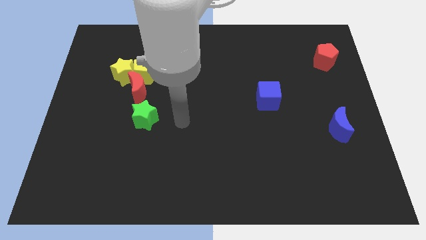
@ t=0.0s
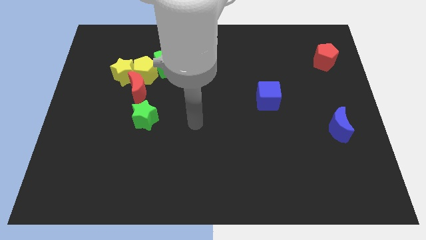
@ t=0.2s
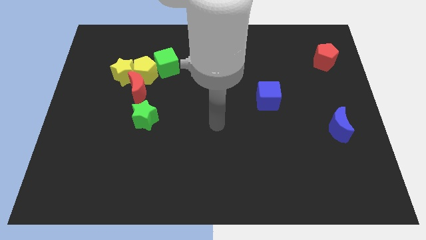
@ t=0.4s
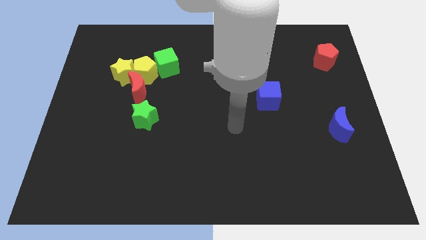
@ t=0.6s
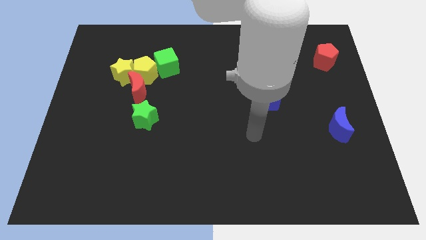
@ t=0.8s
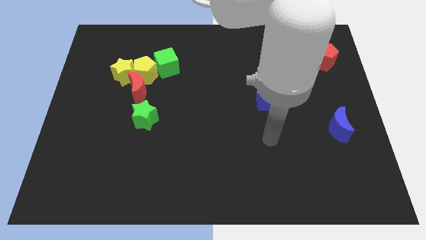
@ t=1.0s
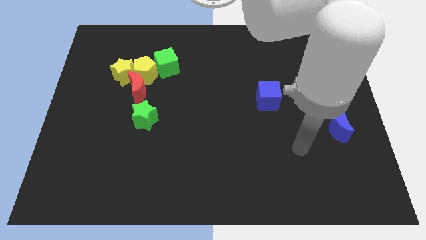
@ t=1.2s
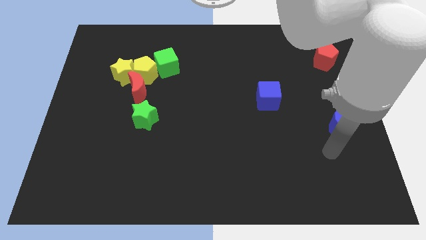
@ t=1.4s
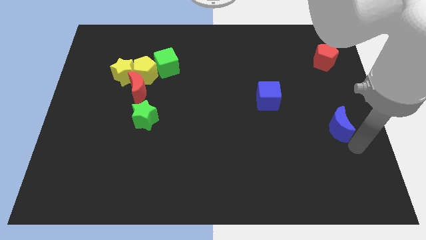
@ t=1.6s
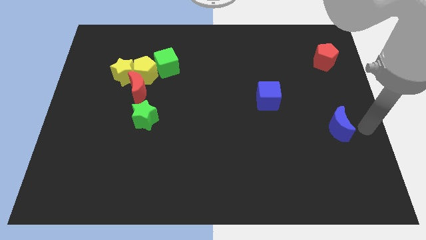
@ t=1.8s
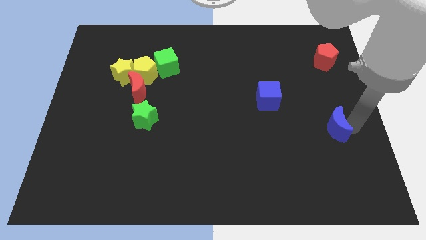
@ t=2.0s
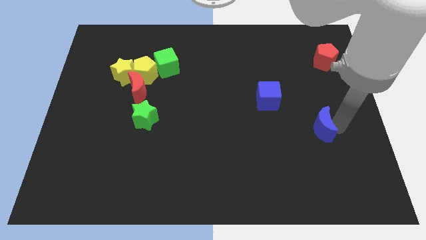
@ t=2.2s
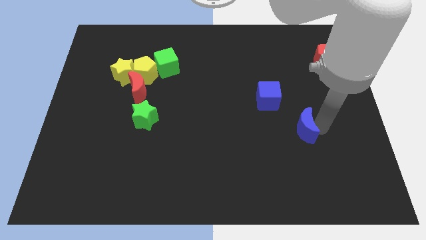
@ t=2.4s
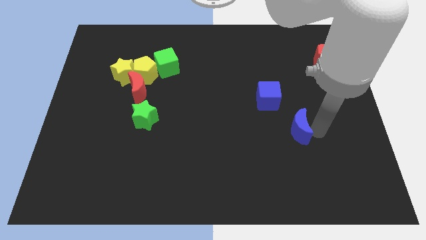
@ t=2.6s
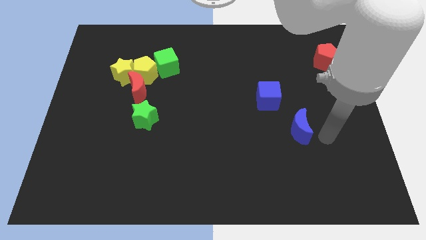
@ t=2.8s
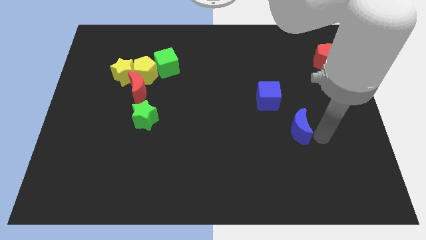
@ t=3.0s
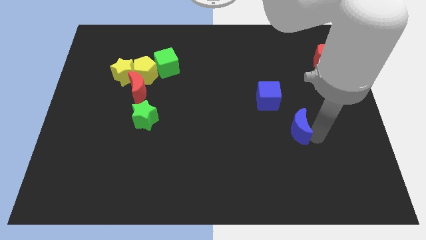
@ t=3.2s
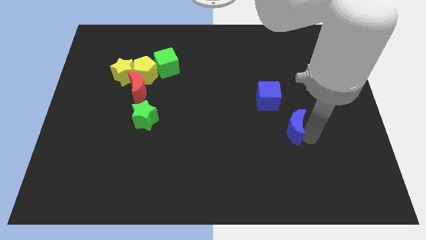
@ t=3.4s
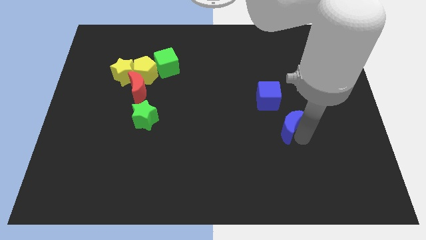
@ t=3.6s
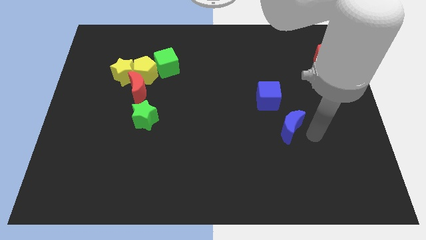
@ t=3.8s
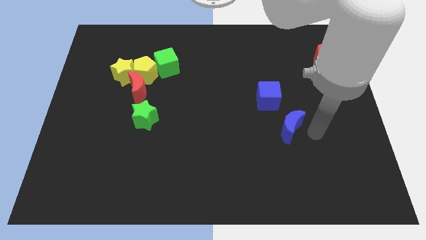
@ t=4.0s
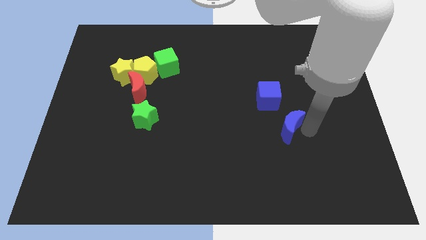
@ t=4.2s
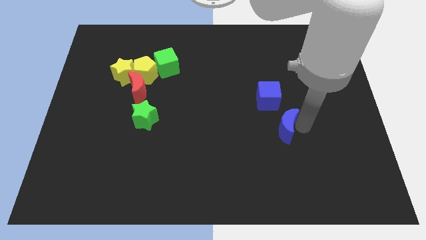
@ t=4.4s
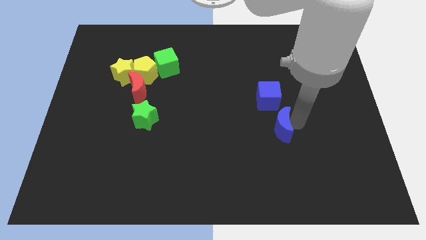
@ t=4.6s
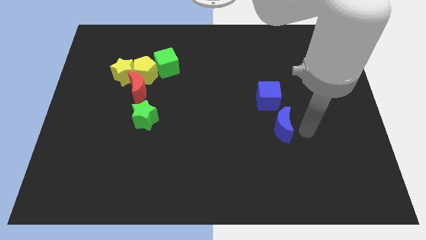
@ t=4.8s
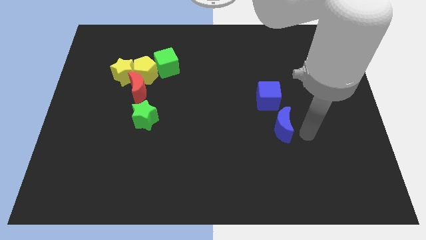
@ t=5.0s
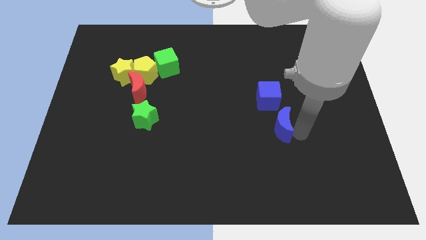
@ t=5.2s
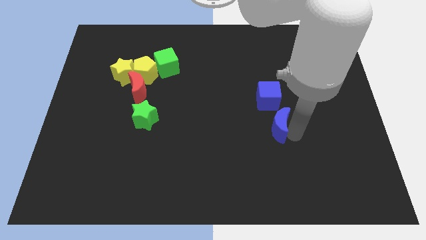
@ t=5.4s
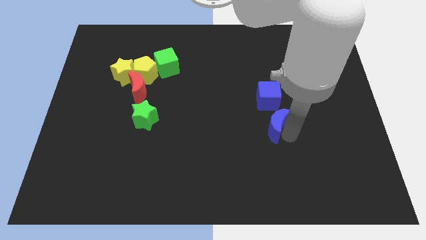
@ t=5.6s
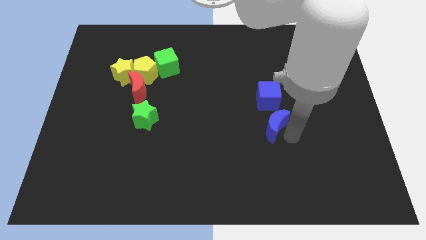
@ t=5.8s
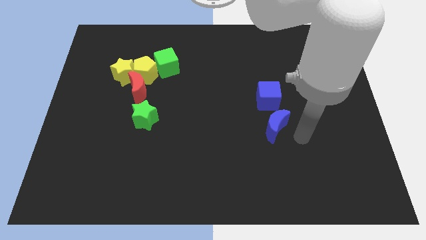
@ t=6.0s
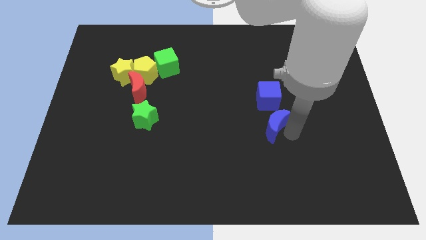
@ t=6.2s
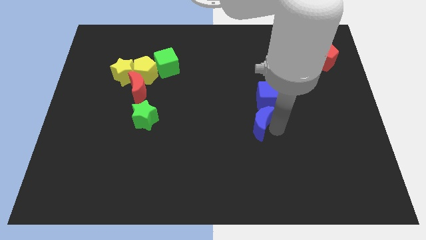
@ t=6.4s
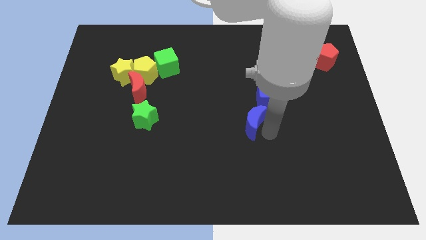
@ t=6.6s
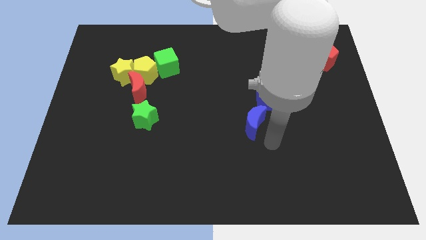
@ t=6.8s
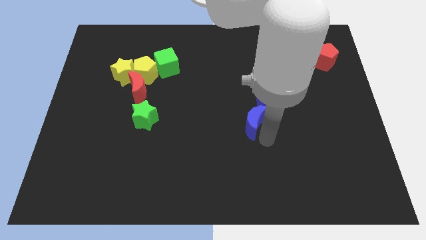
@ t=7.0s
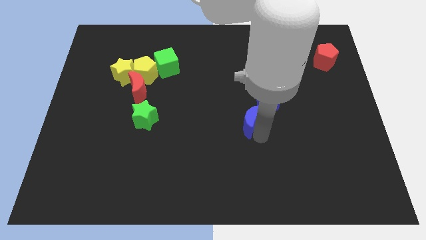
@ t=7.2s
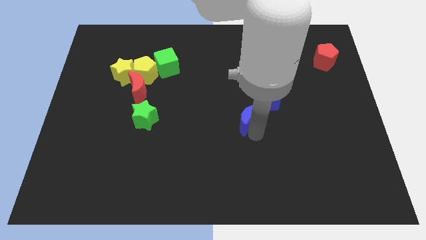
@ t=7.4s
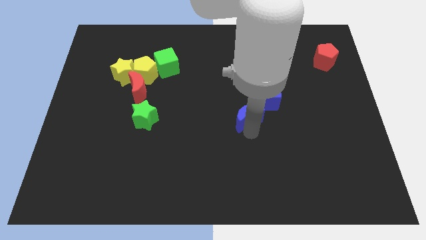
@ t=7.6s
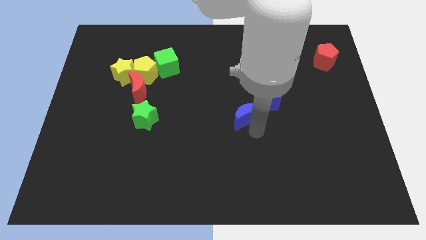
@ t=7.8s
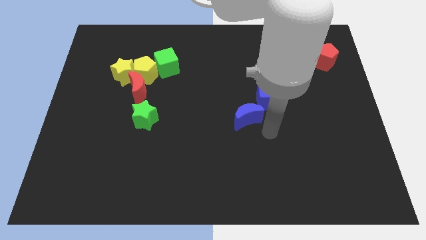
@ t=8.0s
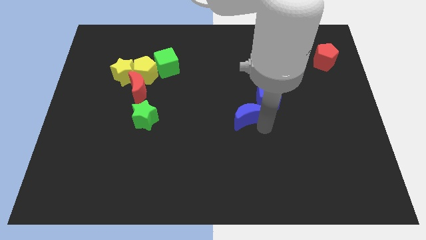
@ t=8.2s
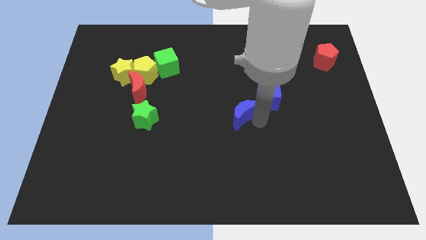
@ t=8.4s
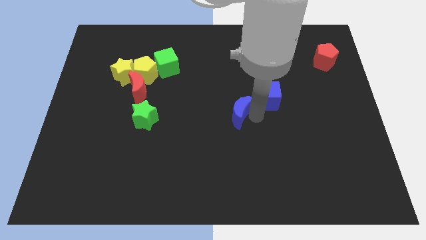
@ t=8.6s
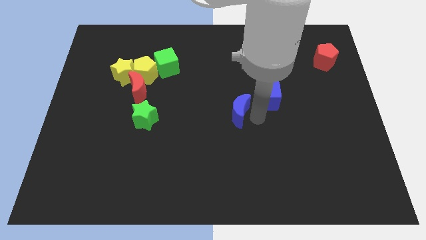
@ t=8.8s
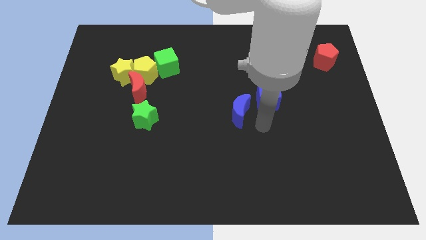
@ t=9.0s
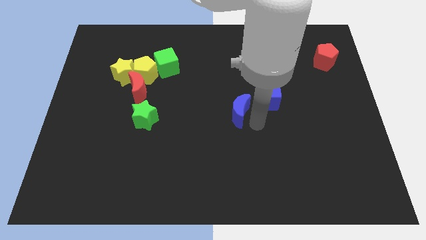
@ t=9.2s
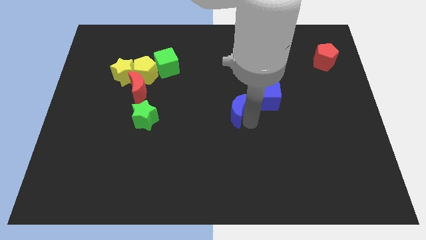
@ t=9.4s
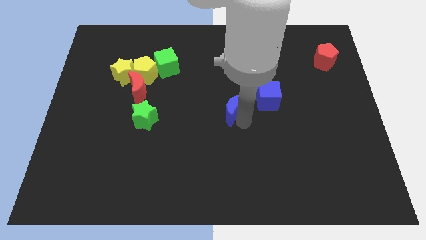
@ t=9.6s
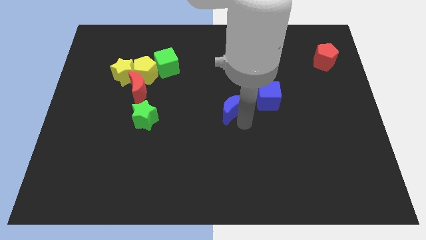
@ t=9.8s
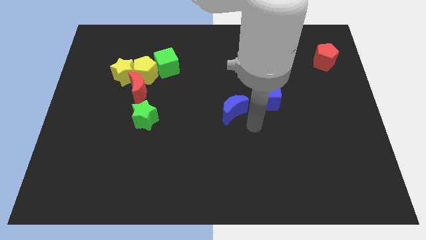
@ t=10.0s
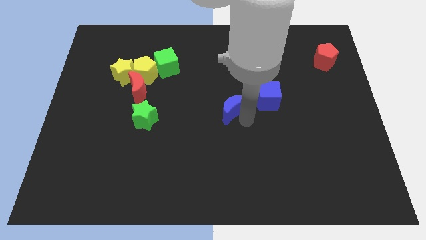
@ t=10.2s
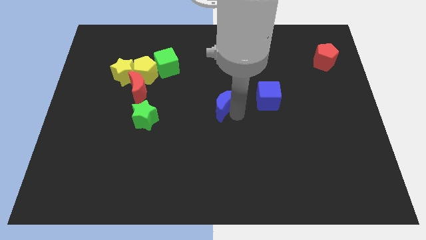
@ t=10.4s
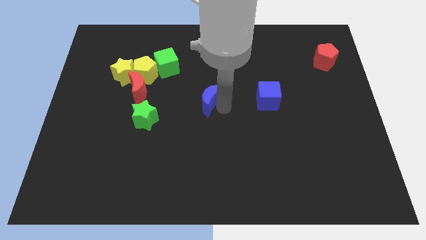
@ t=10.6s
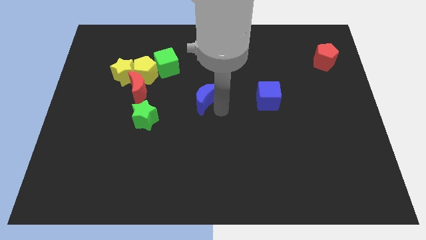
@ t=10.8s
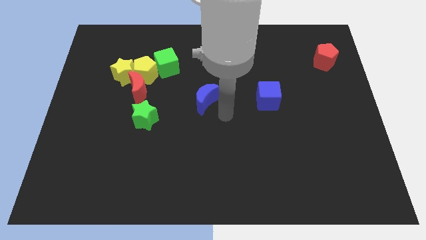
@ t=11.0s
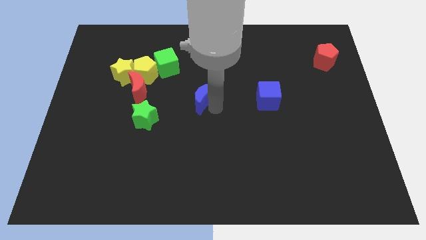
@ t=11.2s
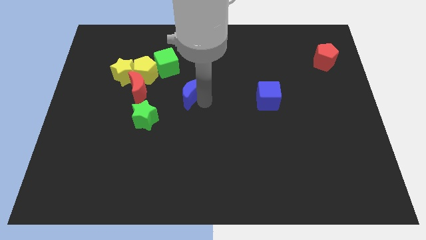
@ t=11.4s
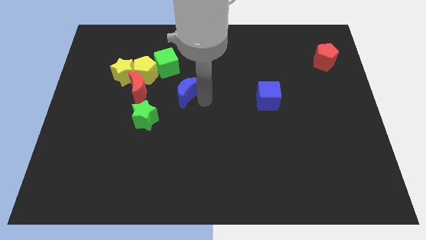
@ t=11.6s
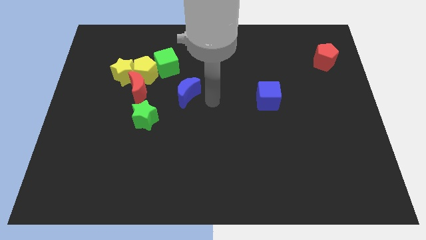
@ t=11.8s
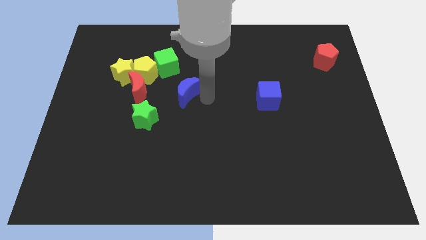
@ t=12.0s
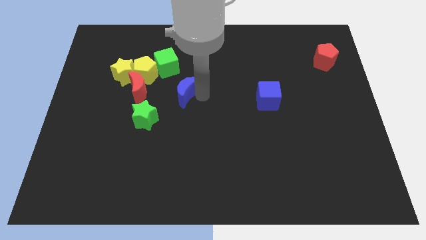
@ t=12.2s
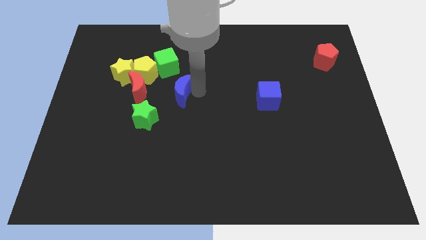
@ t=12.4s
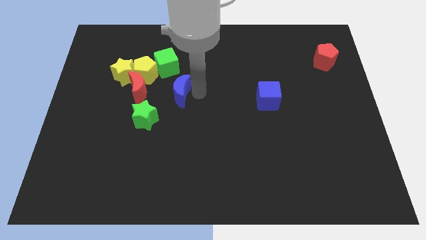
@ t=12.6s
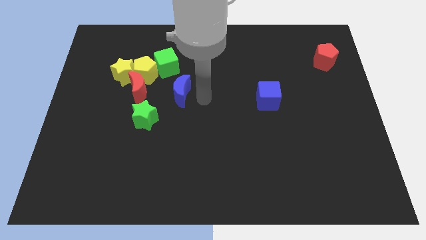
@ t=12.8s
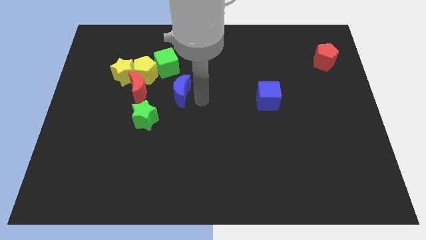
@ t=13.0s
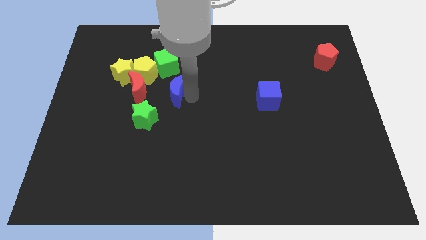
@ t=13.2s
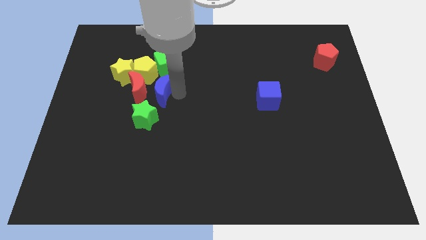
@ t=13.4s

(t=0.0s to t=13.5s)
push the blue moon next to the red moon

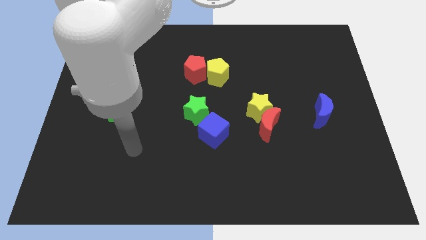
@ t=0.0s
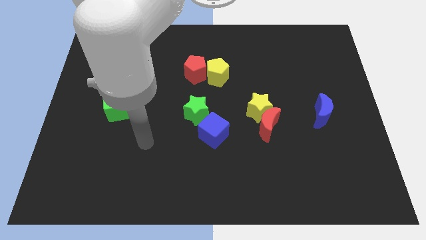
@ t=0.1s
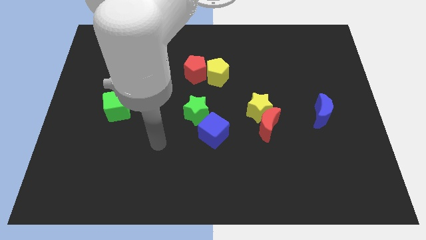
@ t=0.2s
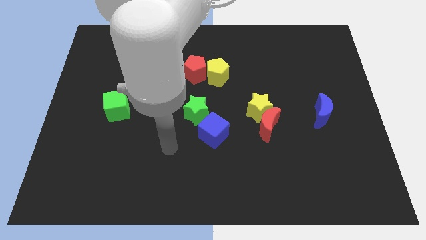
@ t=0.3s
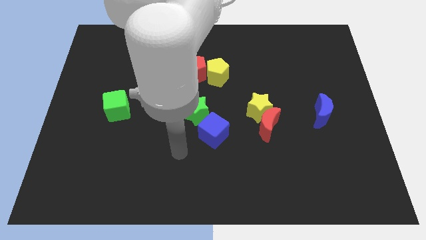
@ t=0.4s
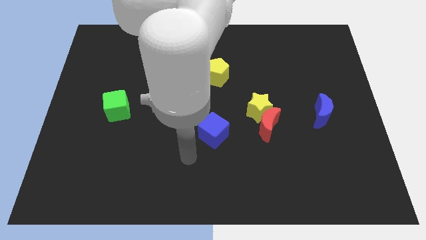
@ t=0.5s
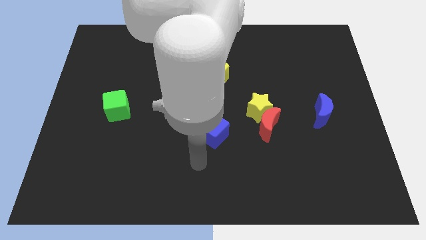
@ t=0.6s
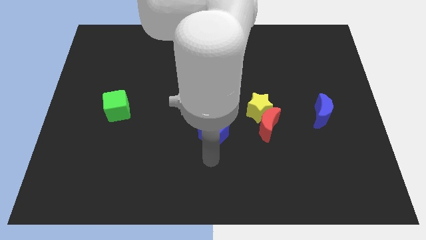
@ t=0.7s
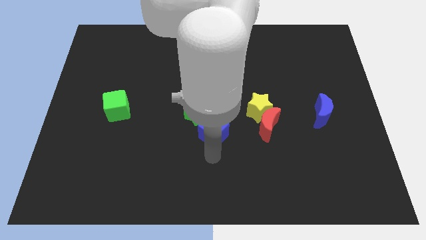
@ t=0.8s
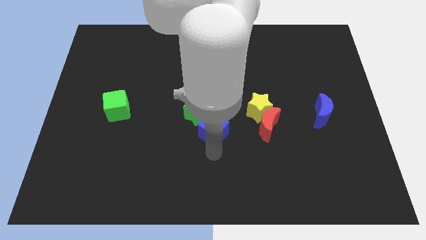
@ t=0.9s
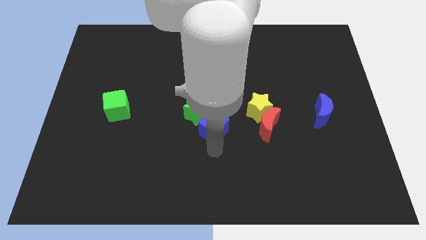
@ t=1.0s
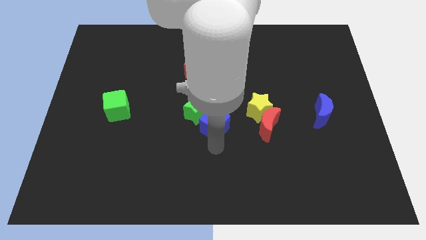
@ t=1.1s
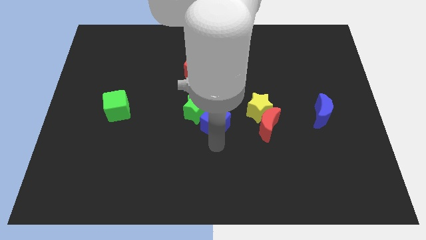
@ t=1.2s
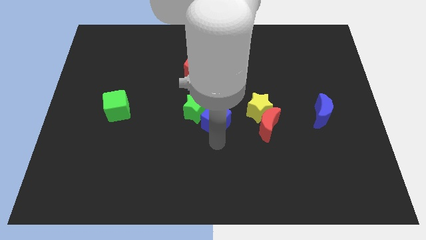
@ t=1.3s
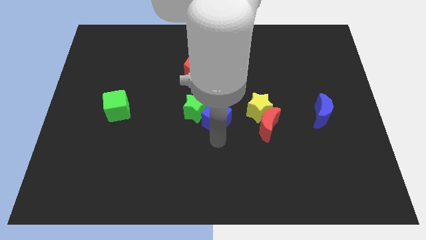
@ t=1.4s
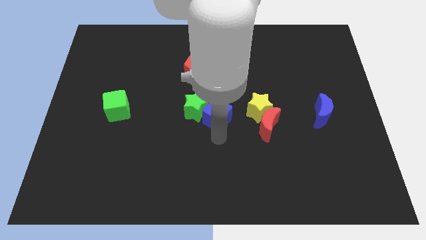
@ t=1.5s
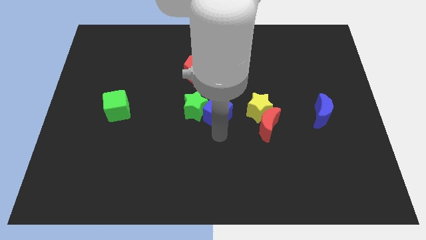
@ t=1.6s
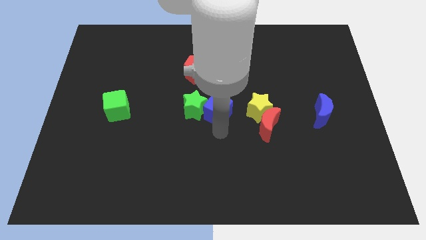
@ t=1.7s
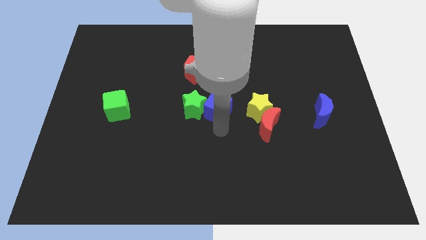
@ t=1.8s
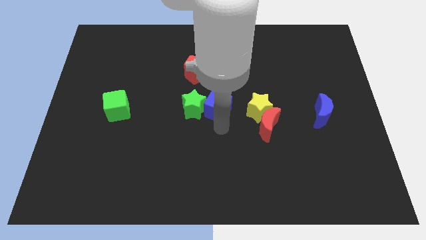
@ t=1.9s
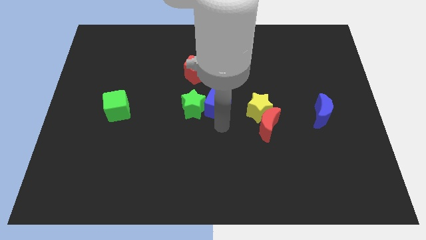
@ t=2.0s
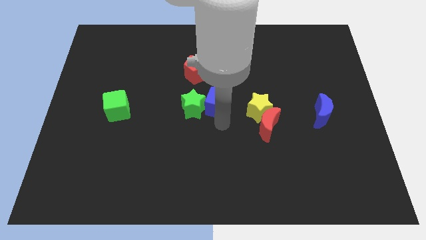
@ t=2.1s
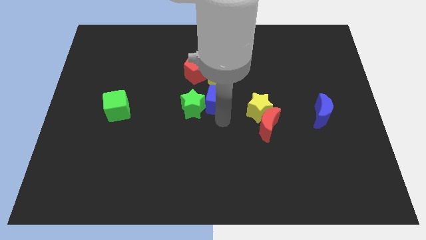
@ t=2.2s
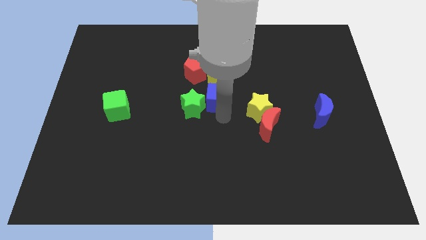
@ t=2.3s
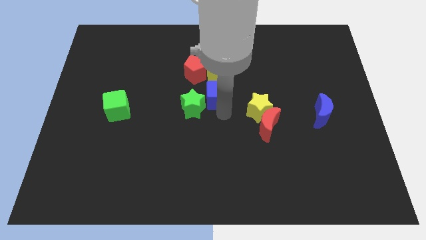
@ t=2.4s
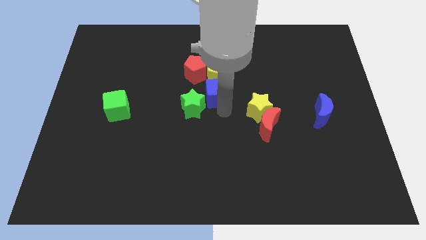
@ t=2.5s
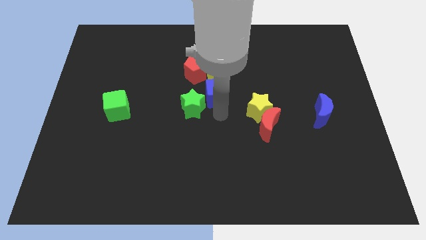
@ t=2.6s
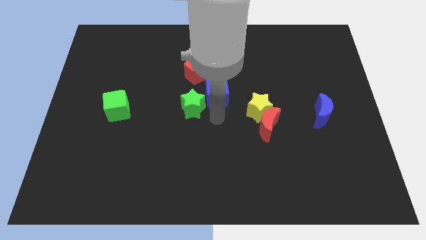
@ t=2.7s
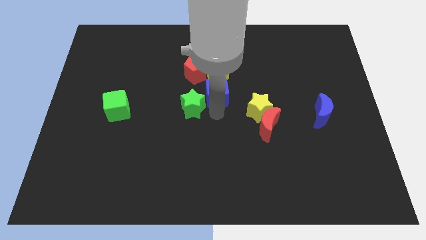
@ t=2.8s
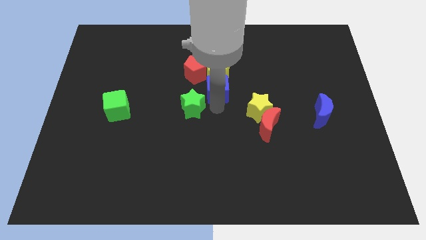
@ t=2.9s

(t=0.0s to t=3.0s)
slide the blue cube next to the yellow pentagon
